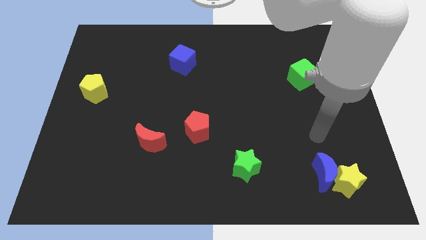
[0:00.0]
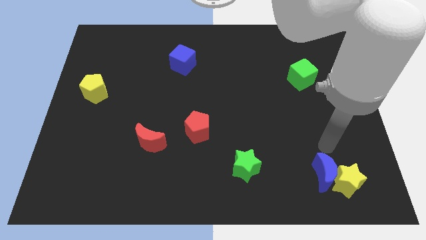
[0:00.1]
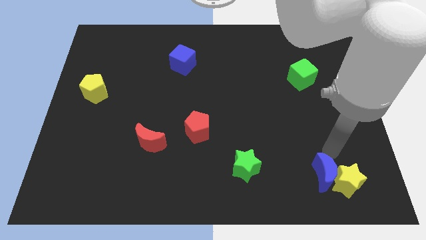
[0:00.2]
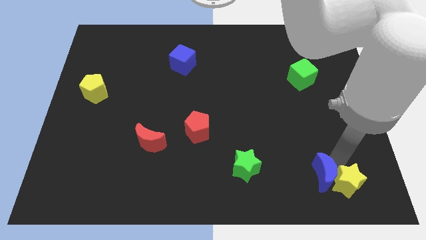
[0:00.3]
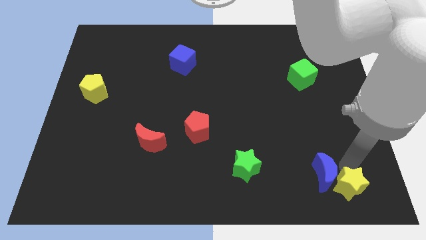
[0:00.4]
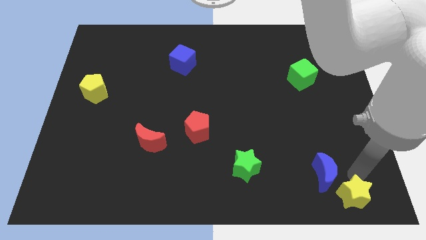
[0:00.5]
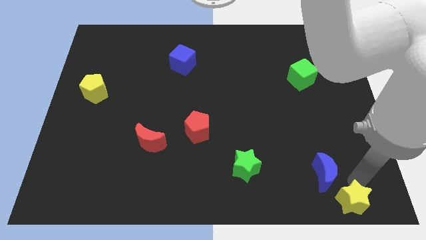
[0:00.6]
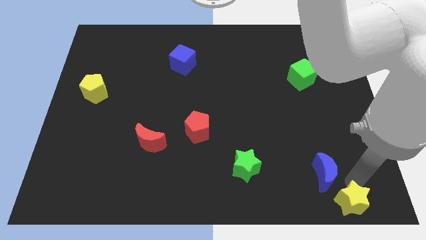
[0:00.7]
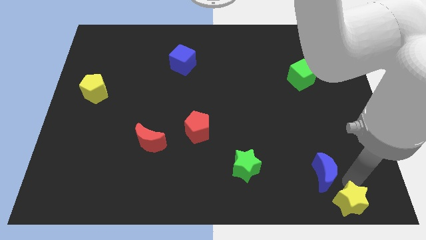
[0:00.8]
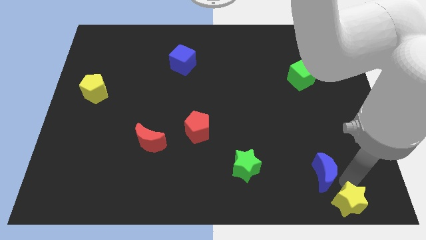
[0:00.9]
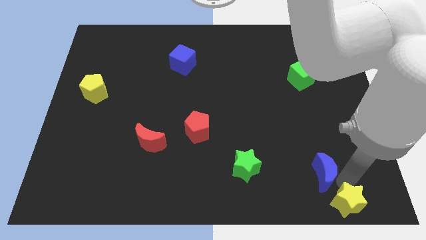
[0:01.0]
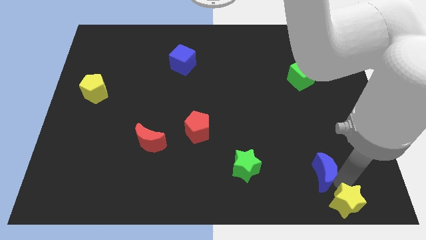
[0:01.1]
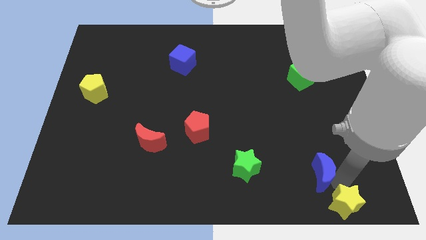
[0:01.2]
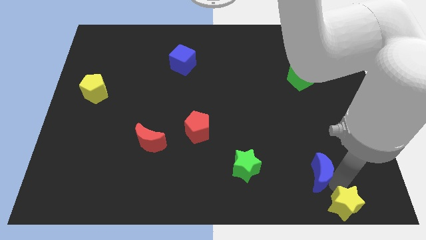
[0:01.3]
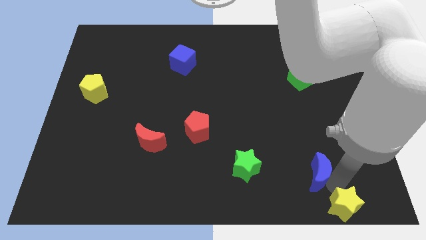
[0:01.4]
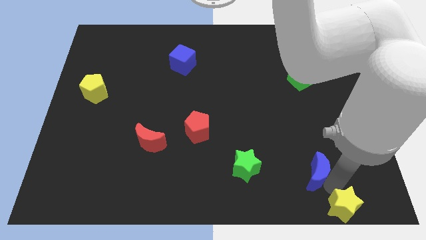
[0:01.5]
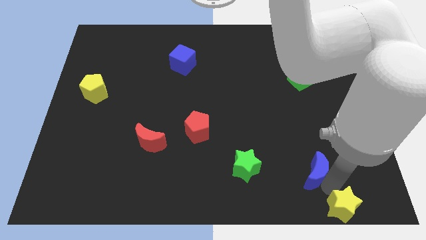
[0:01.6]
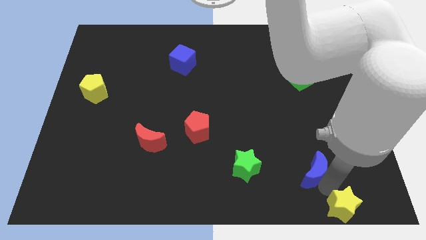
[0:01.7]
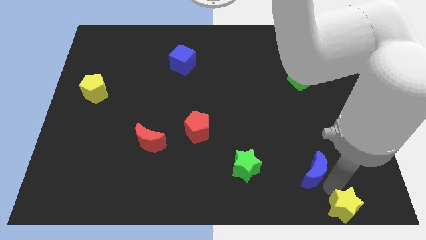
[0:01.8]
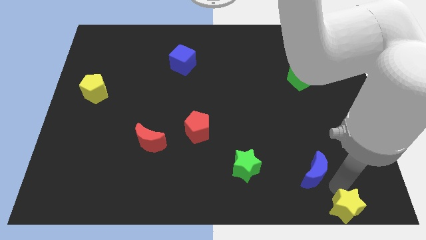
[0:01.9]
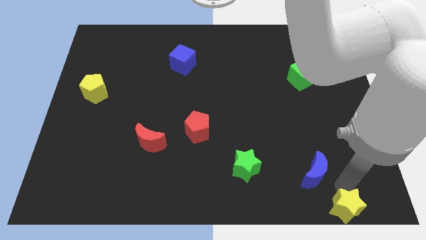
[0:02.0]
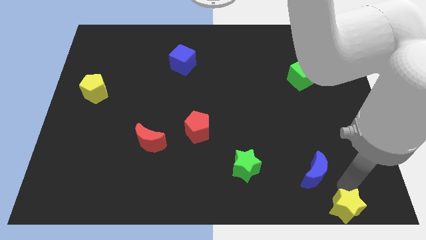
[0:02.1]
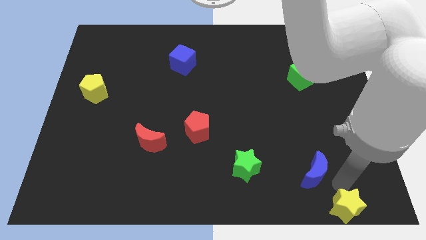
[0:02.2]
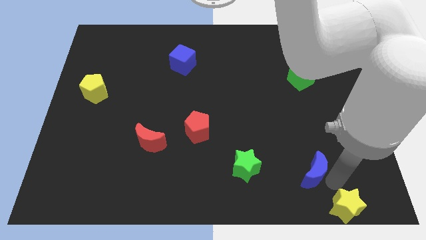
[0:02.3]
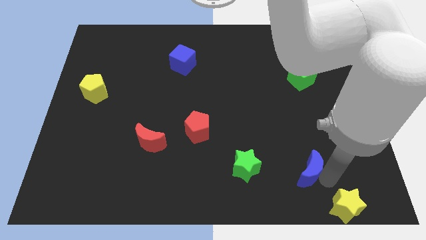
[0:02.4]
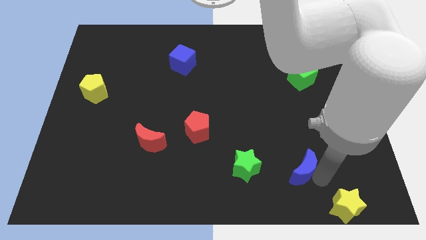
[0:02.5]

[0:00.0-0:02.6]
move the blue moon away from the yellow star

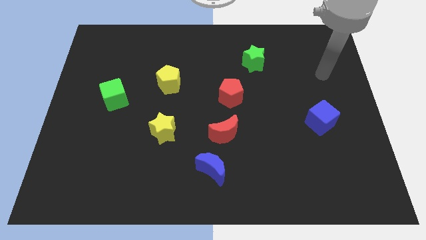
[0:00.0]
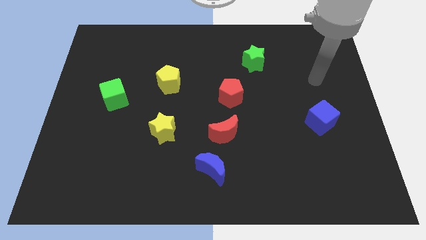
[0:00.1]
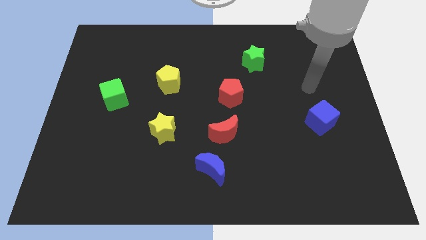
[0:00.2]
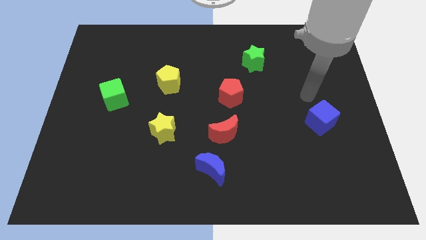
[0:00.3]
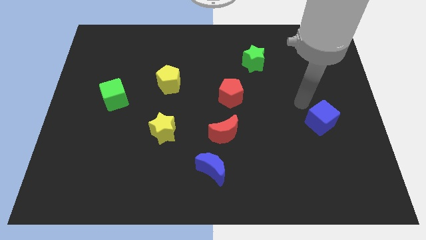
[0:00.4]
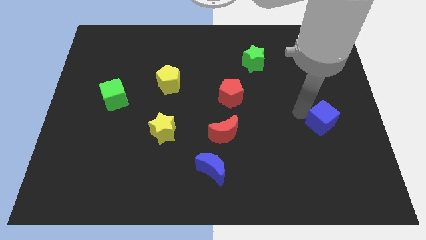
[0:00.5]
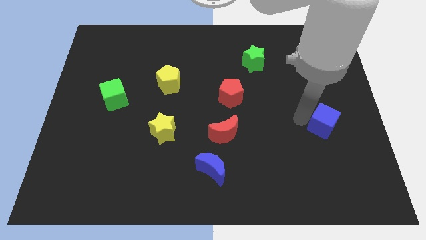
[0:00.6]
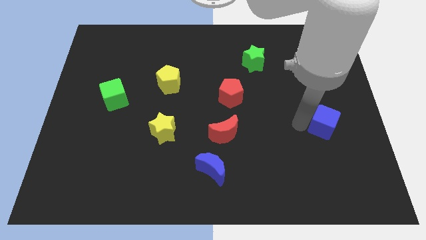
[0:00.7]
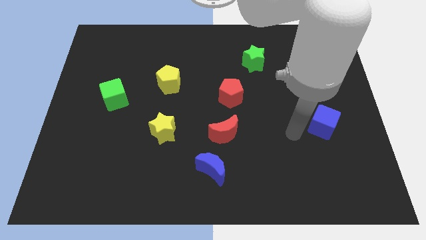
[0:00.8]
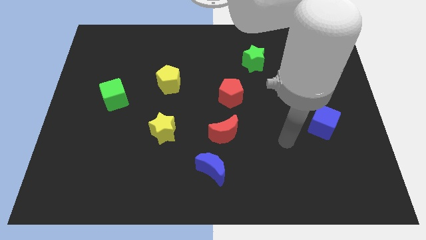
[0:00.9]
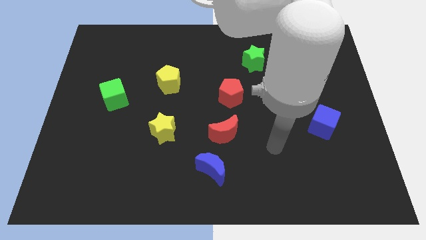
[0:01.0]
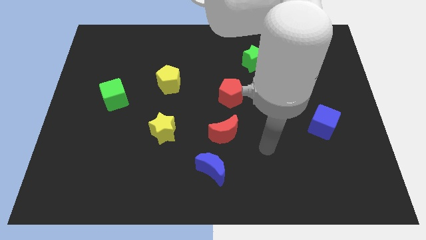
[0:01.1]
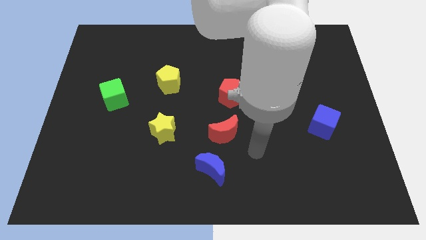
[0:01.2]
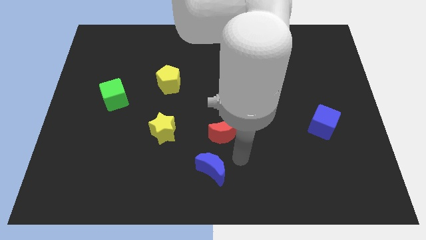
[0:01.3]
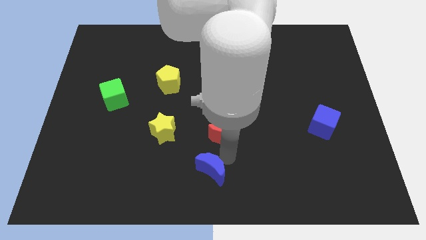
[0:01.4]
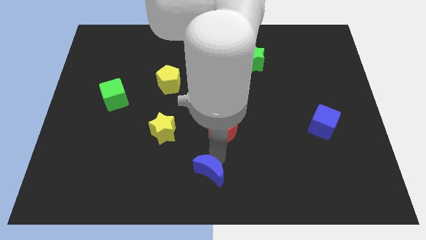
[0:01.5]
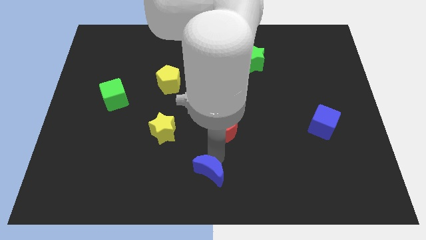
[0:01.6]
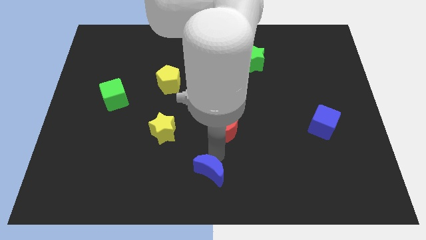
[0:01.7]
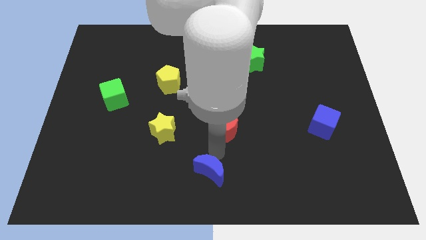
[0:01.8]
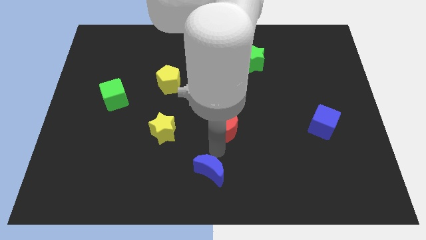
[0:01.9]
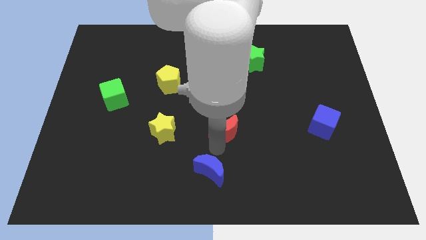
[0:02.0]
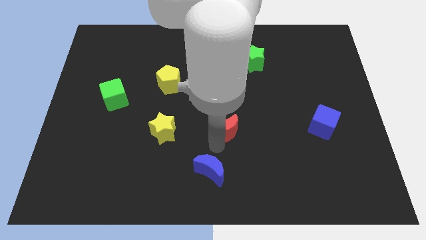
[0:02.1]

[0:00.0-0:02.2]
pull the red moon apart from the blue moon

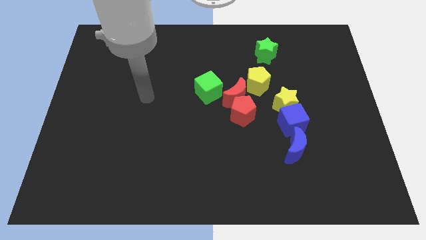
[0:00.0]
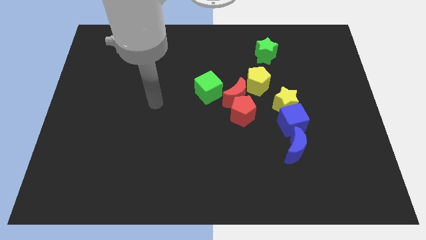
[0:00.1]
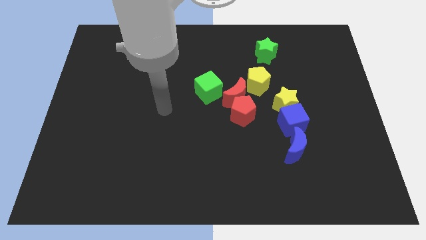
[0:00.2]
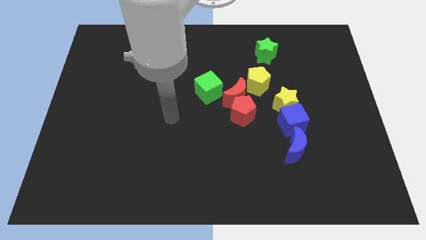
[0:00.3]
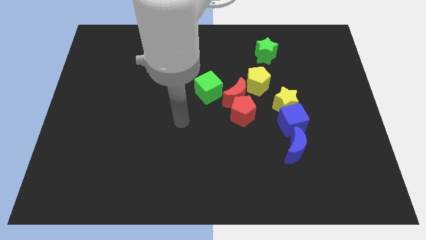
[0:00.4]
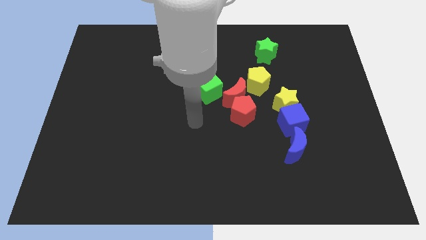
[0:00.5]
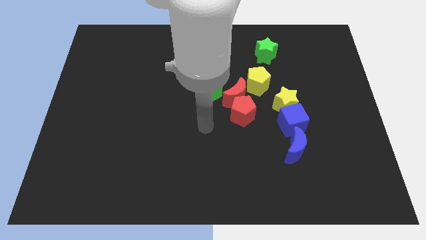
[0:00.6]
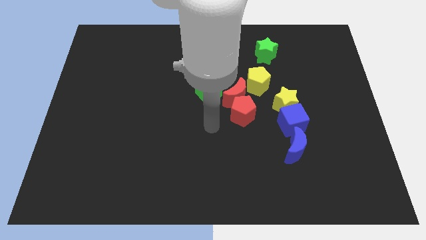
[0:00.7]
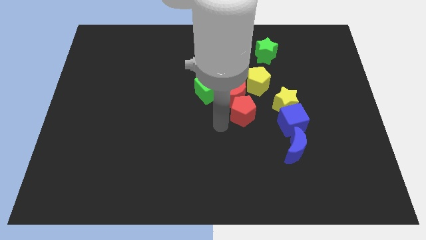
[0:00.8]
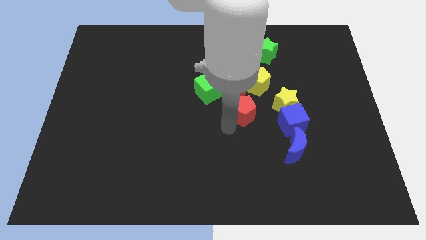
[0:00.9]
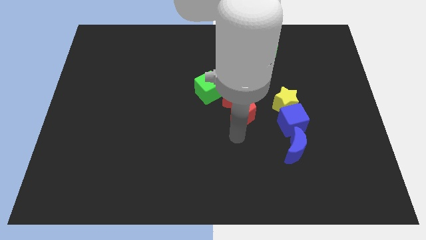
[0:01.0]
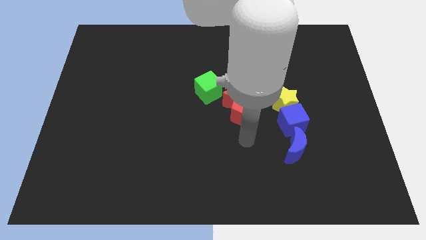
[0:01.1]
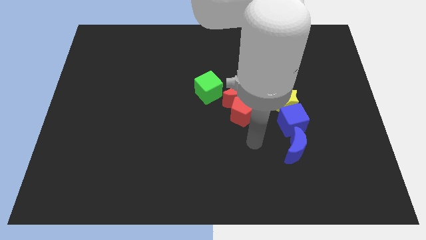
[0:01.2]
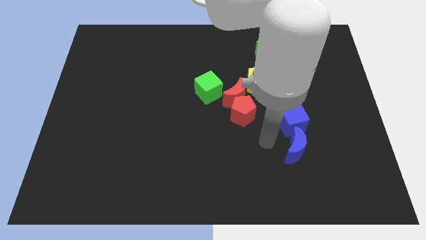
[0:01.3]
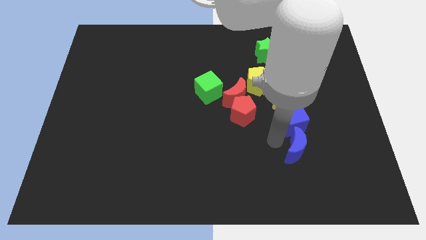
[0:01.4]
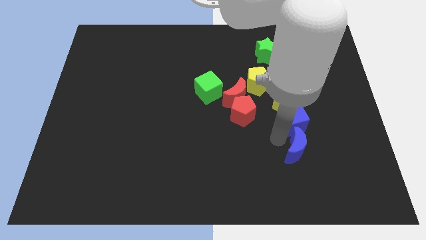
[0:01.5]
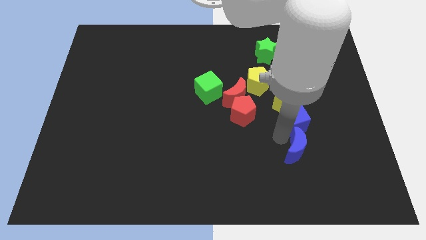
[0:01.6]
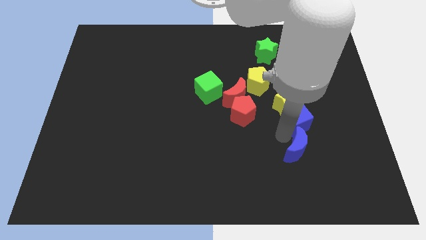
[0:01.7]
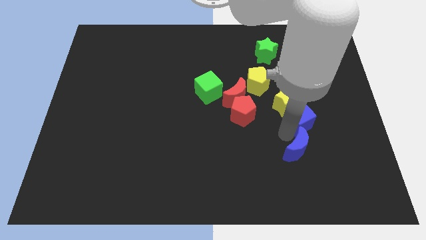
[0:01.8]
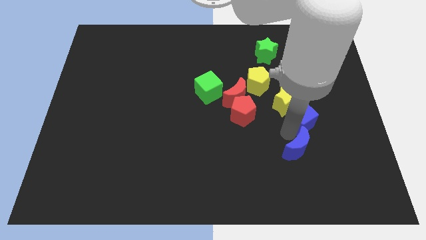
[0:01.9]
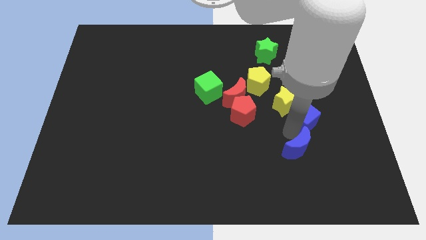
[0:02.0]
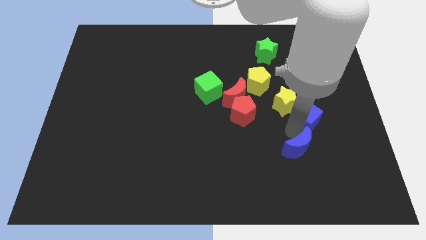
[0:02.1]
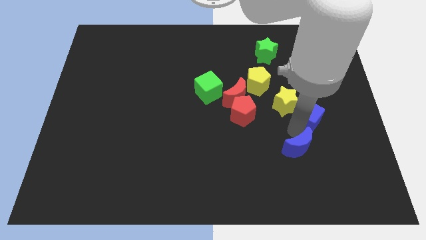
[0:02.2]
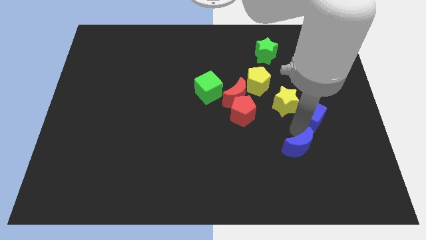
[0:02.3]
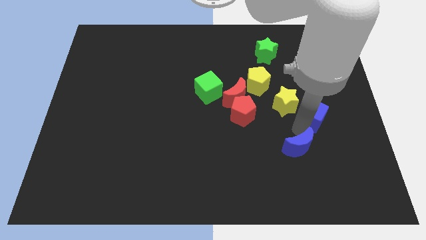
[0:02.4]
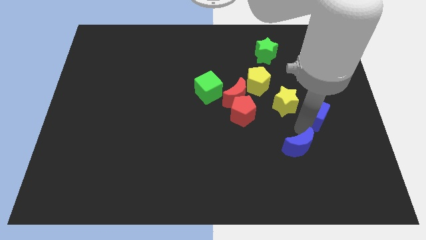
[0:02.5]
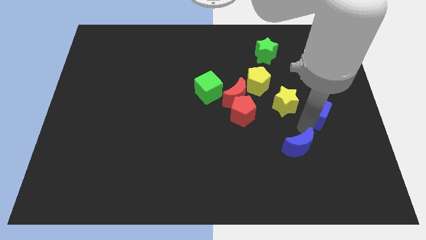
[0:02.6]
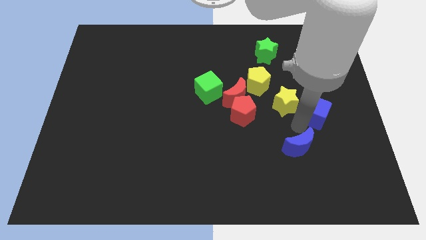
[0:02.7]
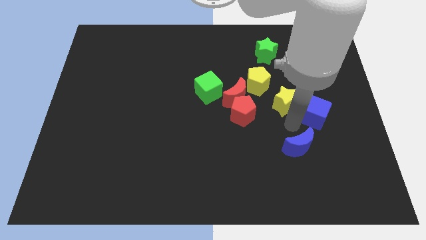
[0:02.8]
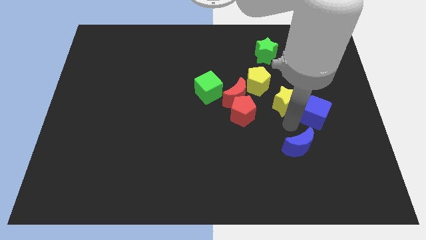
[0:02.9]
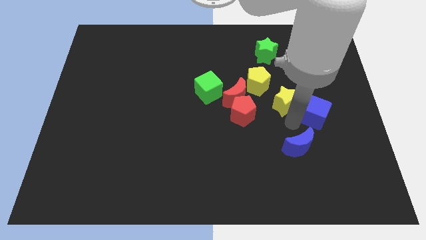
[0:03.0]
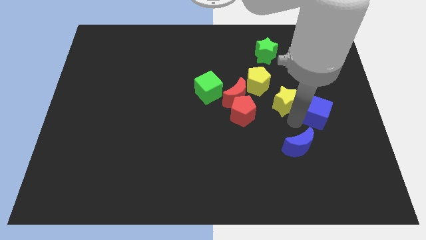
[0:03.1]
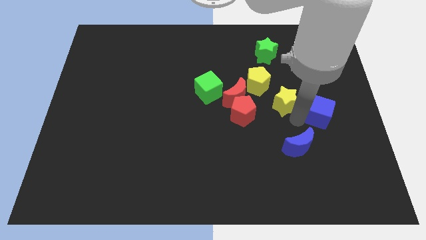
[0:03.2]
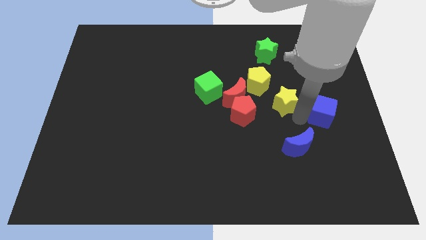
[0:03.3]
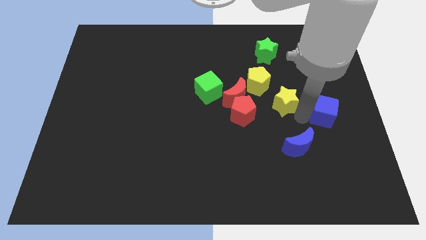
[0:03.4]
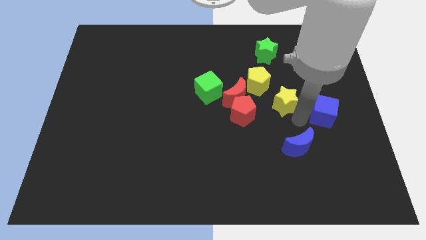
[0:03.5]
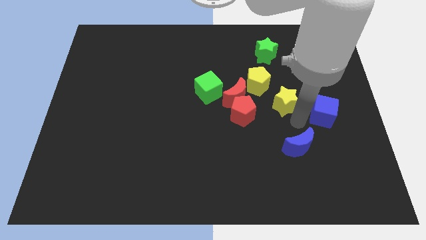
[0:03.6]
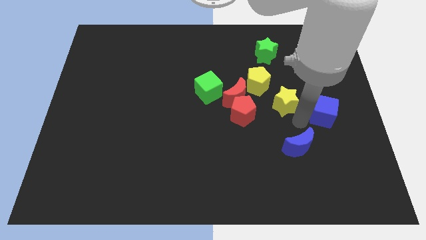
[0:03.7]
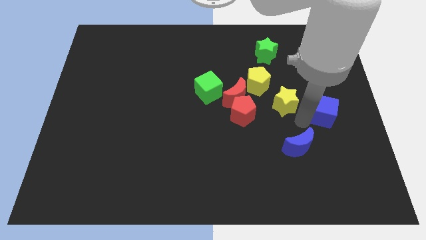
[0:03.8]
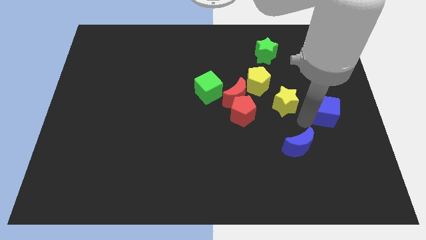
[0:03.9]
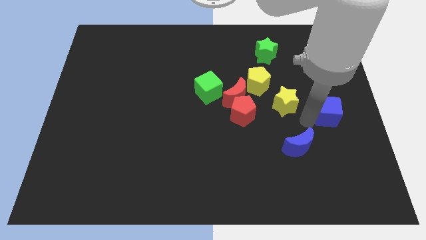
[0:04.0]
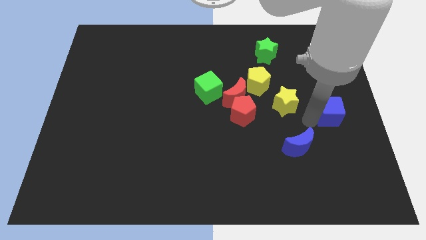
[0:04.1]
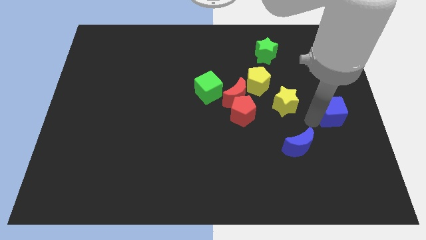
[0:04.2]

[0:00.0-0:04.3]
separate the blue cube from the yellow star and blue moon

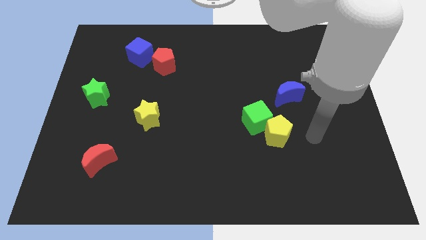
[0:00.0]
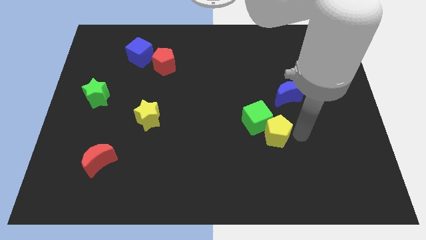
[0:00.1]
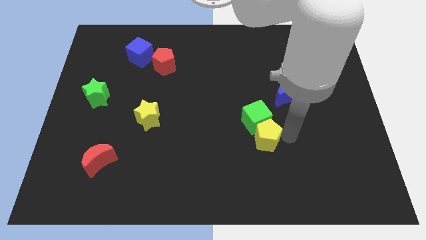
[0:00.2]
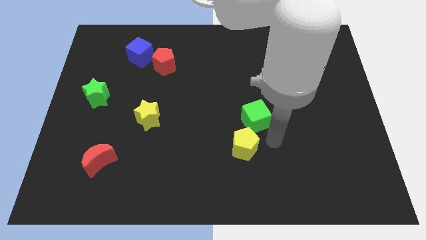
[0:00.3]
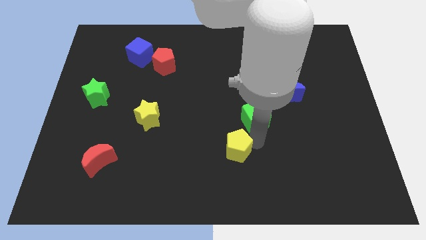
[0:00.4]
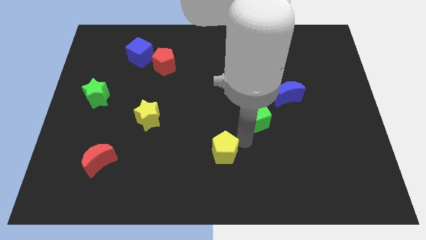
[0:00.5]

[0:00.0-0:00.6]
separate the green cube from the yellow pentagon
